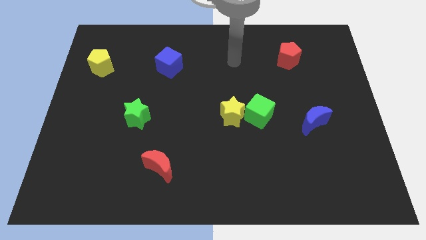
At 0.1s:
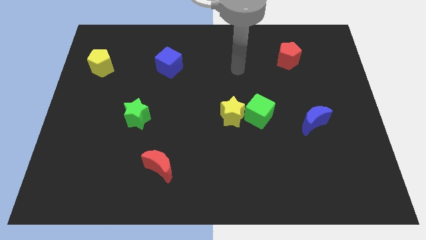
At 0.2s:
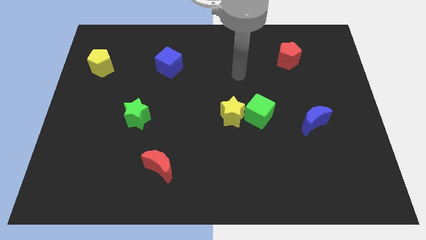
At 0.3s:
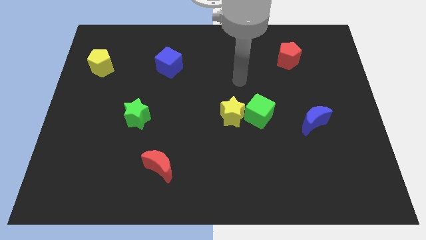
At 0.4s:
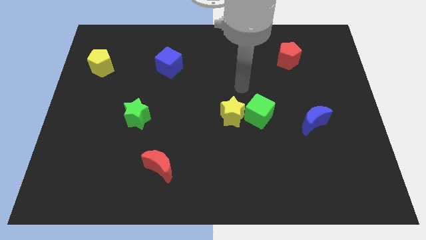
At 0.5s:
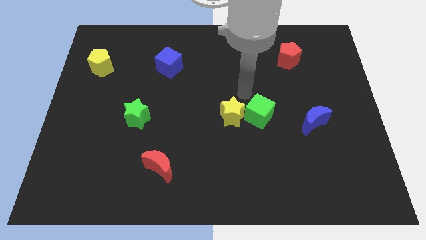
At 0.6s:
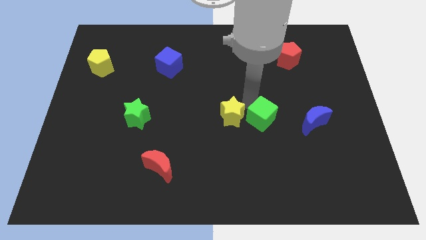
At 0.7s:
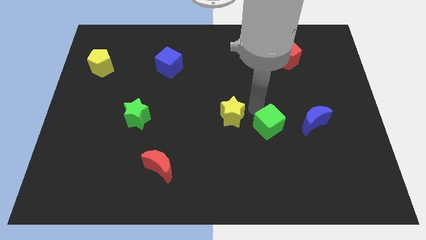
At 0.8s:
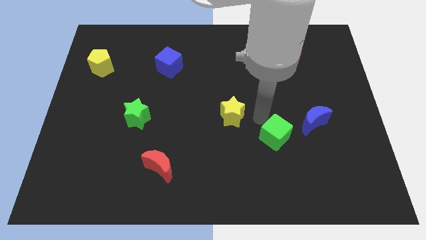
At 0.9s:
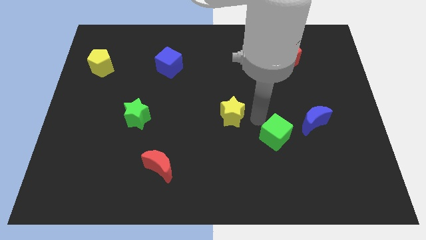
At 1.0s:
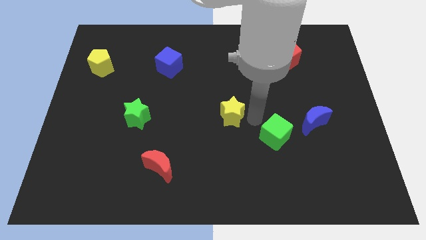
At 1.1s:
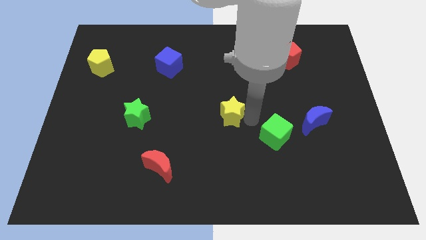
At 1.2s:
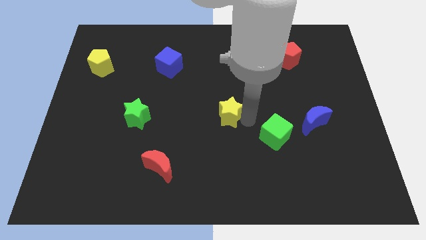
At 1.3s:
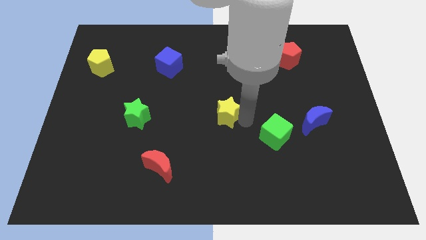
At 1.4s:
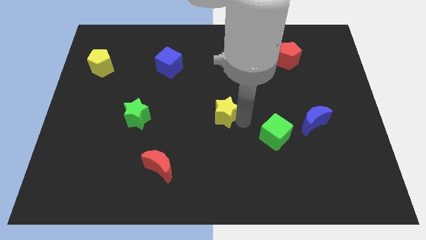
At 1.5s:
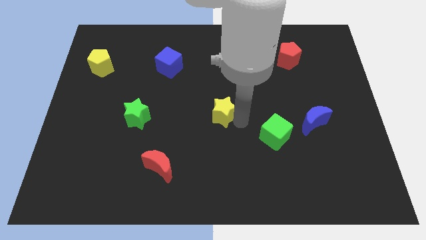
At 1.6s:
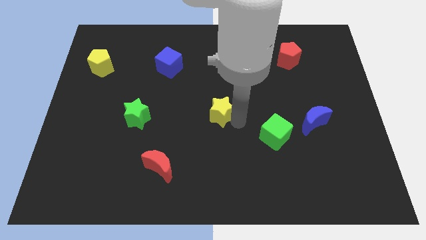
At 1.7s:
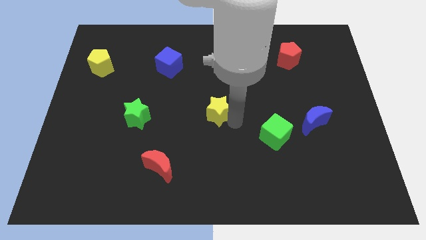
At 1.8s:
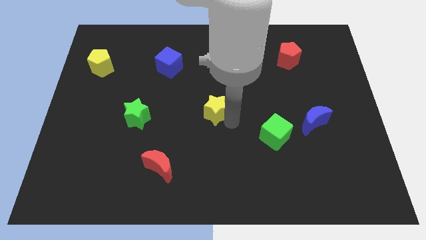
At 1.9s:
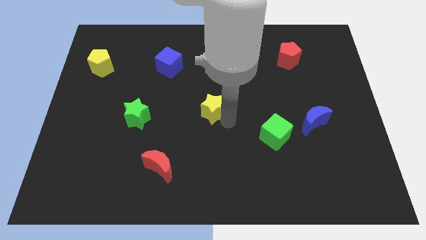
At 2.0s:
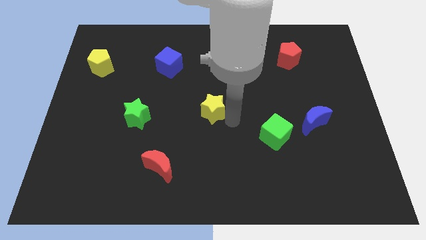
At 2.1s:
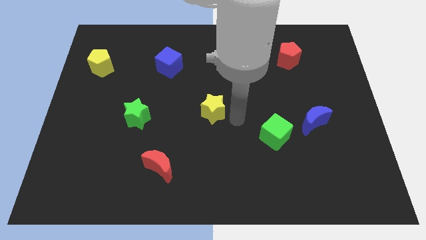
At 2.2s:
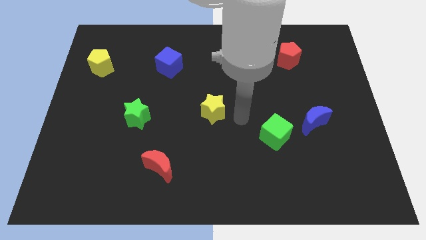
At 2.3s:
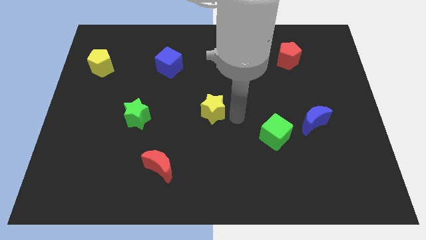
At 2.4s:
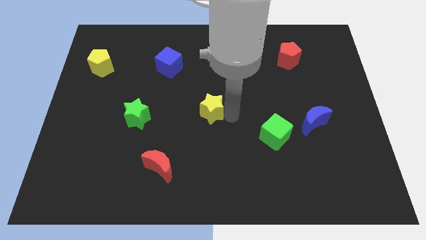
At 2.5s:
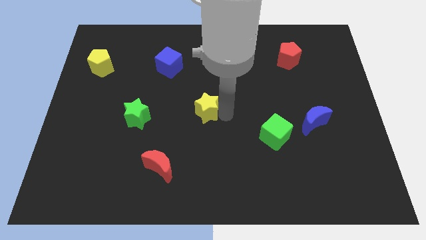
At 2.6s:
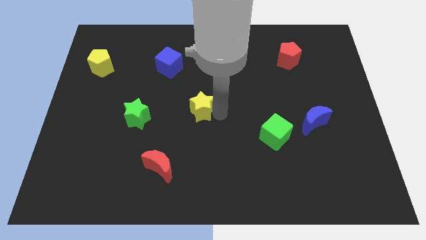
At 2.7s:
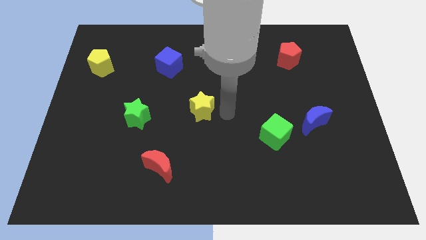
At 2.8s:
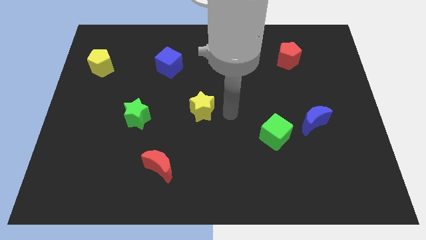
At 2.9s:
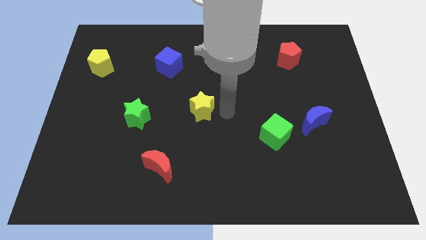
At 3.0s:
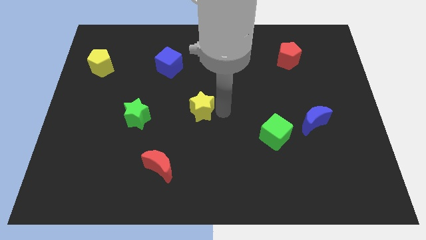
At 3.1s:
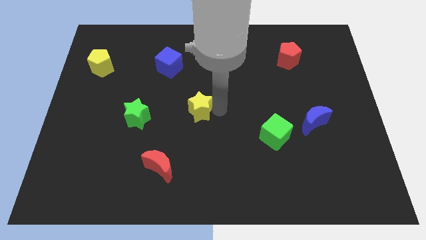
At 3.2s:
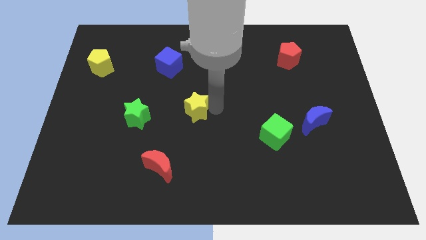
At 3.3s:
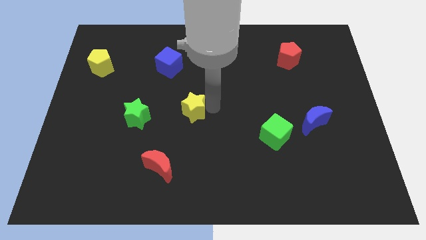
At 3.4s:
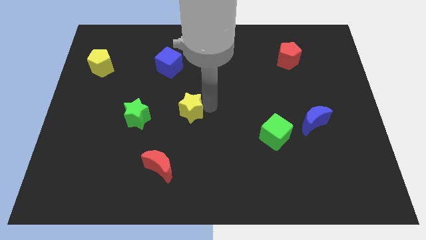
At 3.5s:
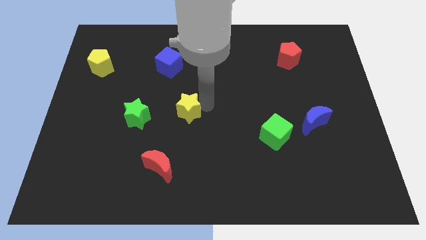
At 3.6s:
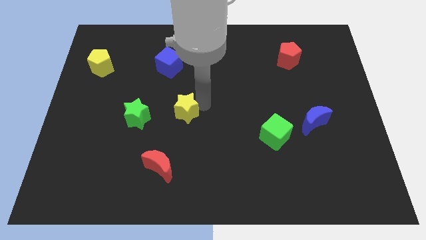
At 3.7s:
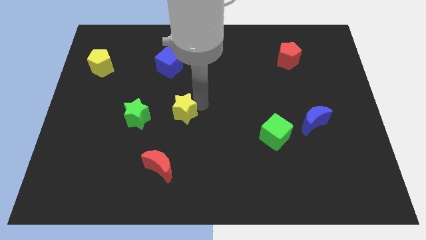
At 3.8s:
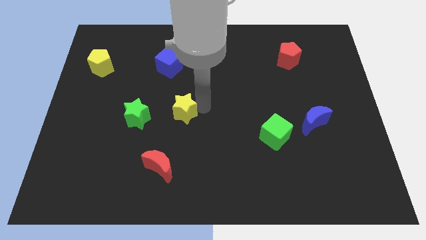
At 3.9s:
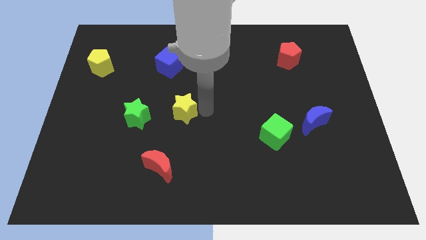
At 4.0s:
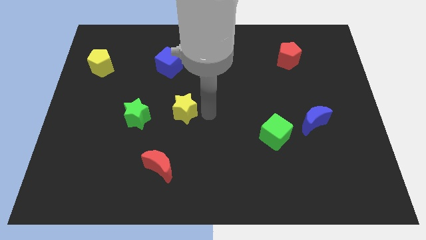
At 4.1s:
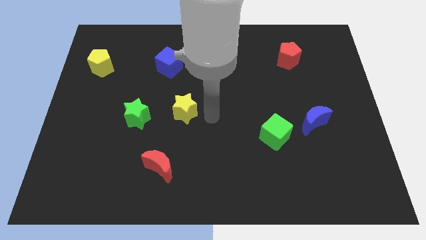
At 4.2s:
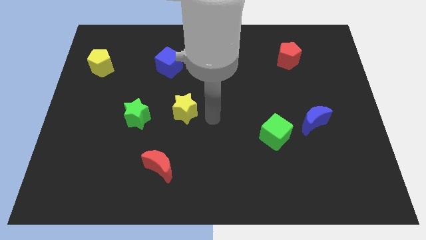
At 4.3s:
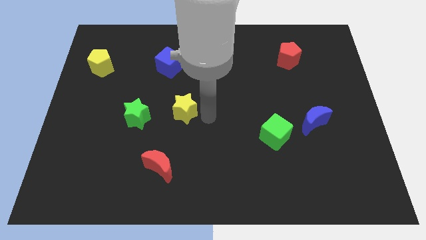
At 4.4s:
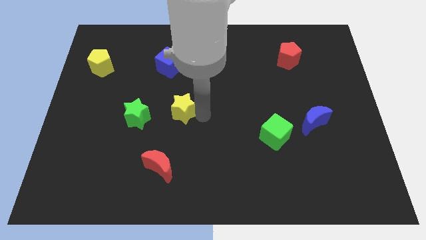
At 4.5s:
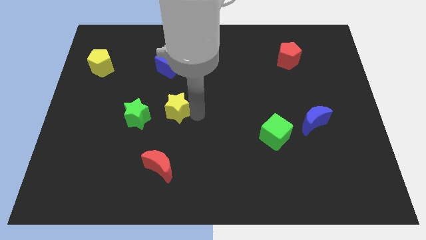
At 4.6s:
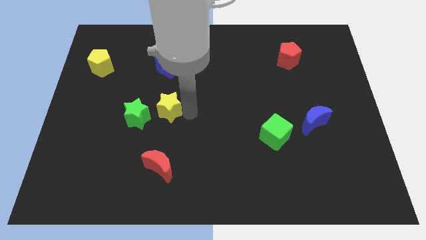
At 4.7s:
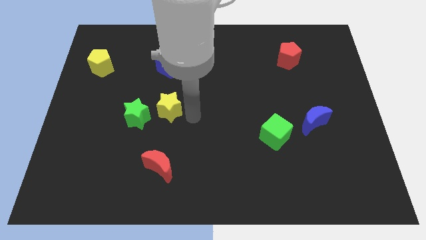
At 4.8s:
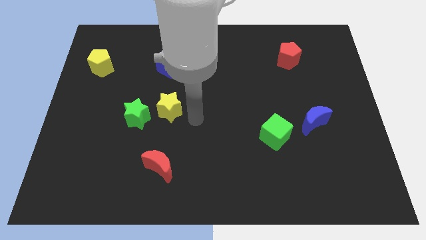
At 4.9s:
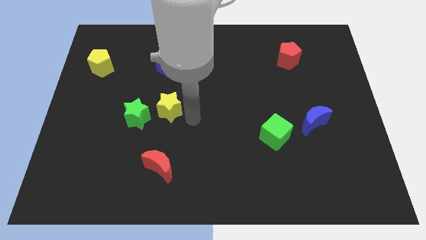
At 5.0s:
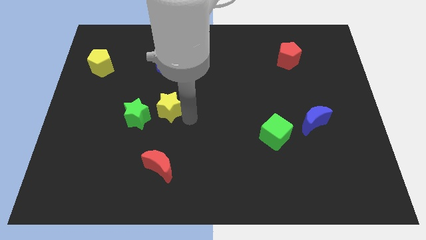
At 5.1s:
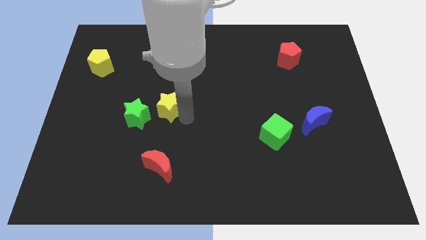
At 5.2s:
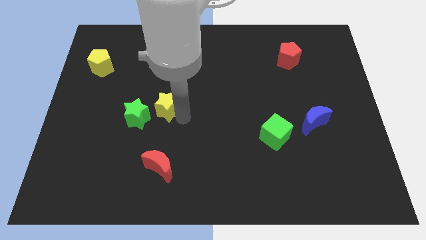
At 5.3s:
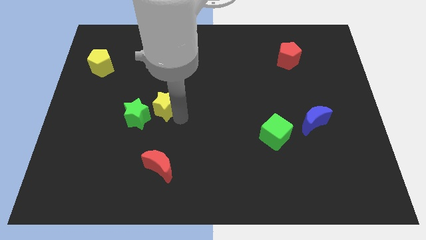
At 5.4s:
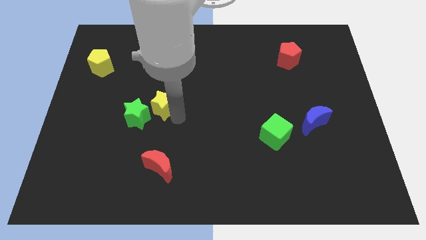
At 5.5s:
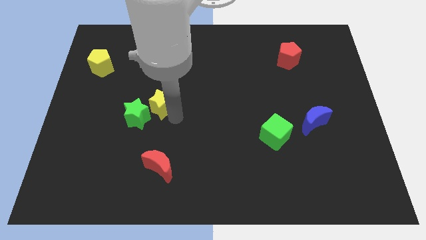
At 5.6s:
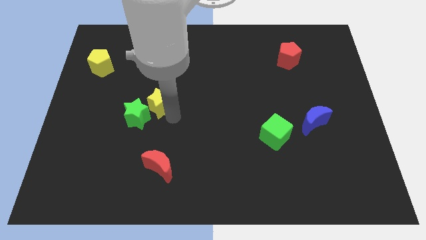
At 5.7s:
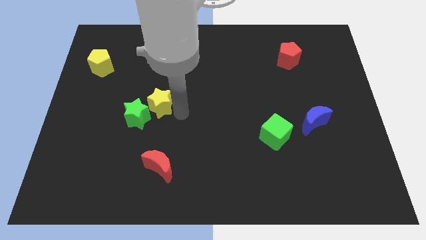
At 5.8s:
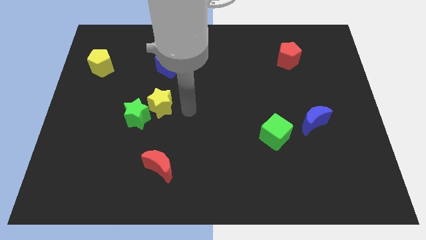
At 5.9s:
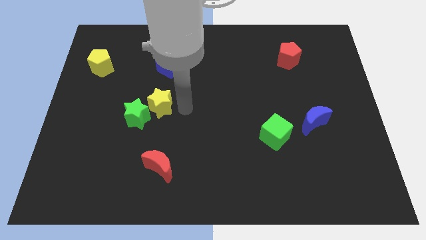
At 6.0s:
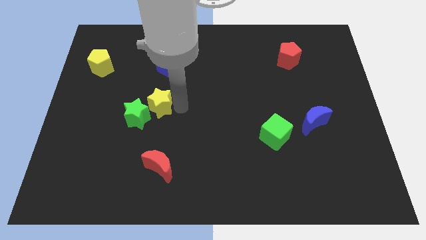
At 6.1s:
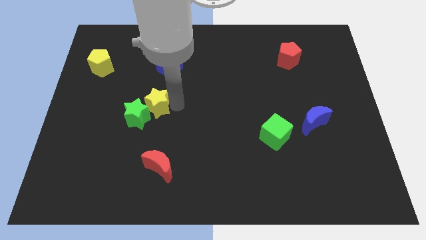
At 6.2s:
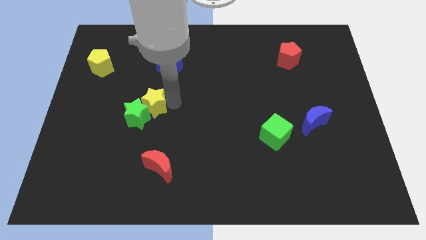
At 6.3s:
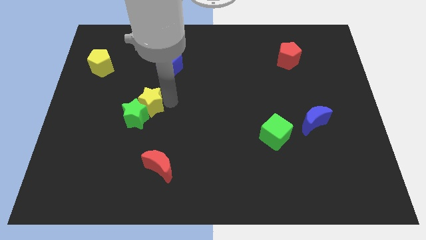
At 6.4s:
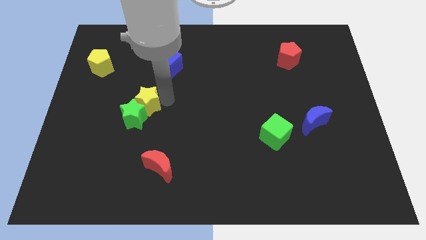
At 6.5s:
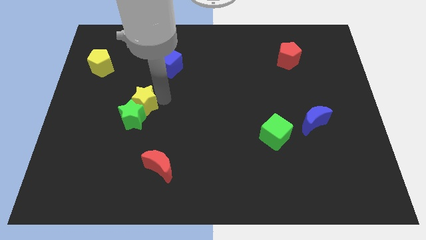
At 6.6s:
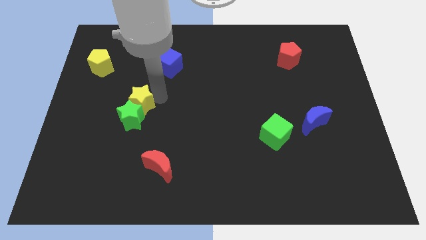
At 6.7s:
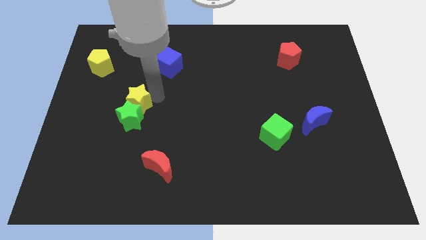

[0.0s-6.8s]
move the yellow star to the top left of the green star
